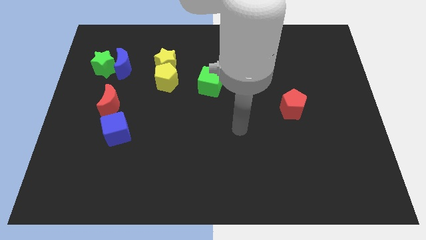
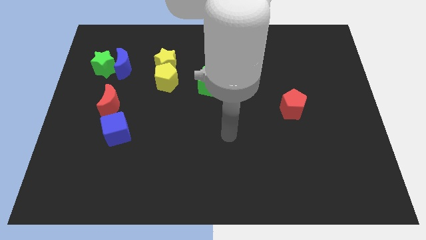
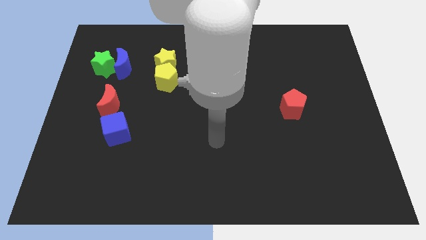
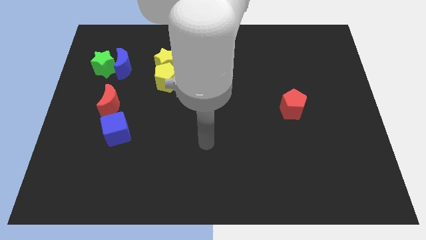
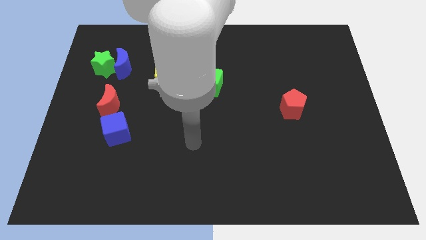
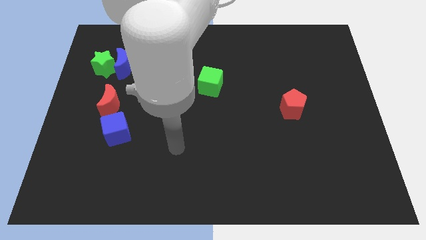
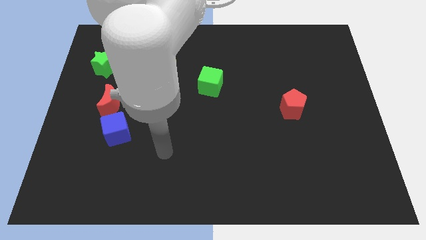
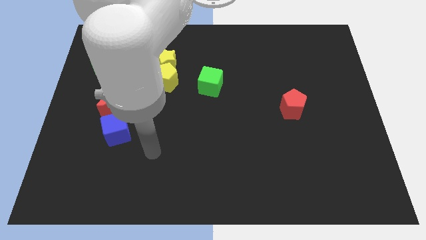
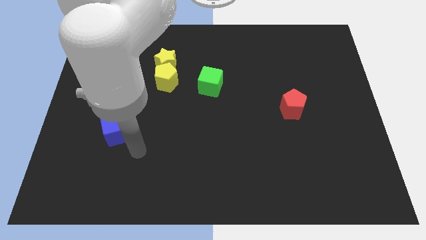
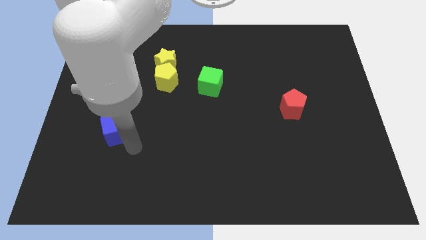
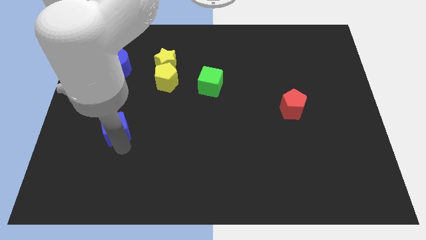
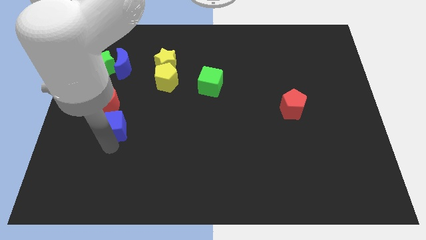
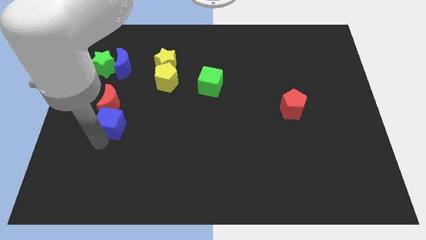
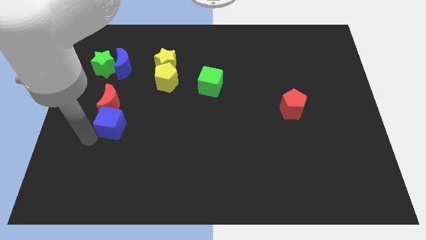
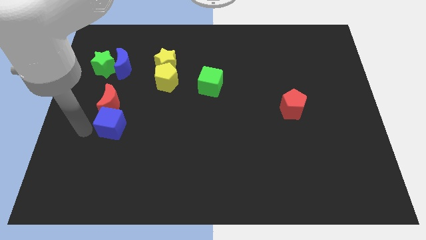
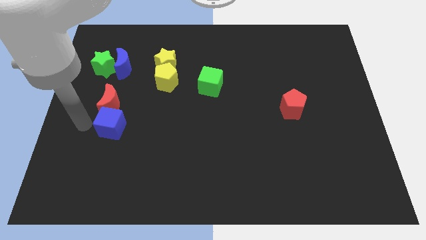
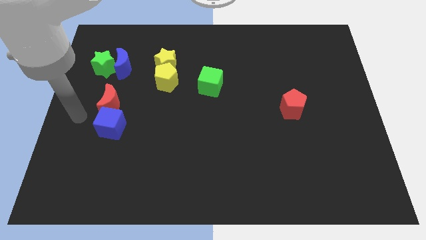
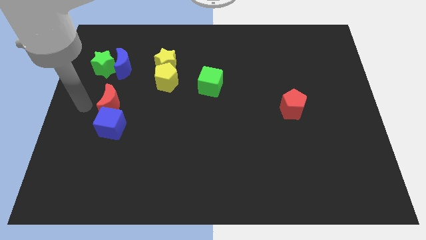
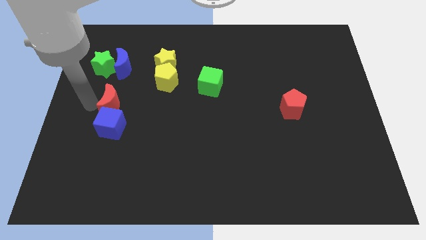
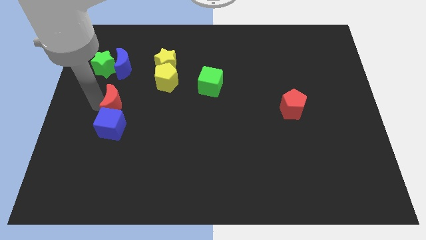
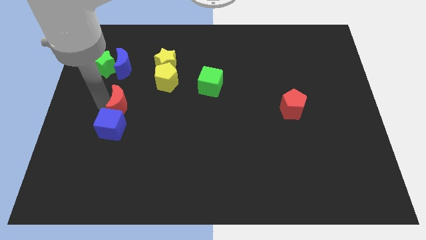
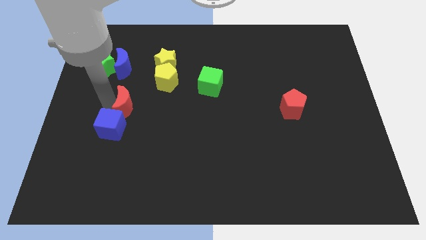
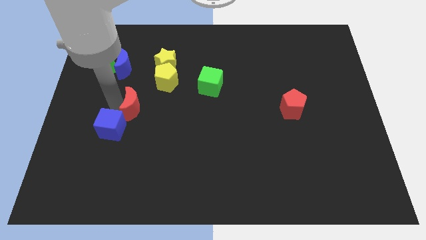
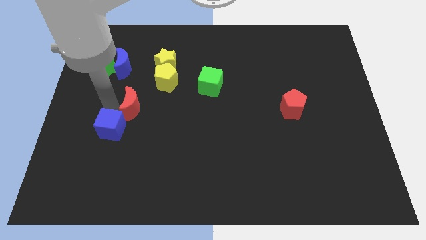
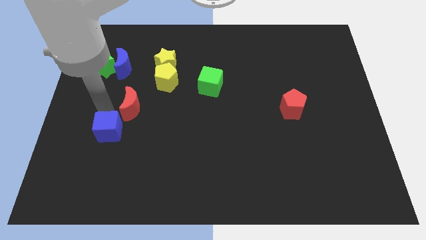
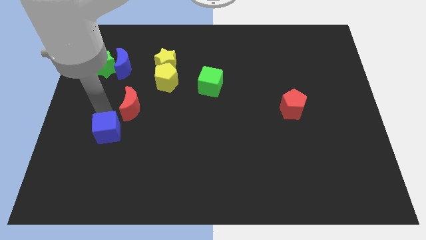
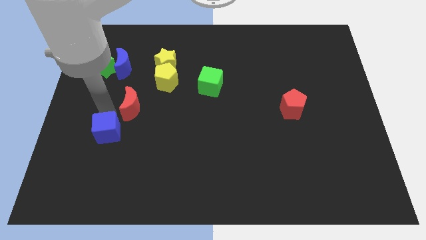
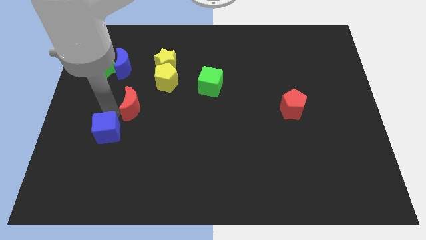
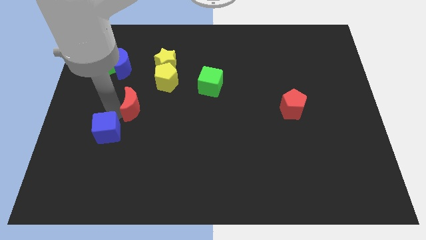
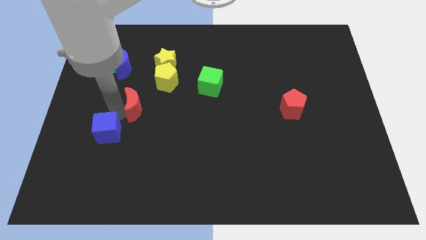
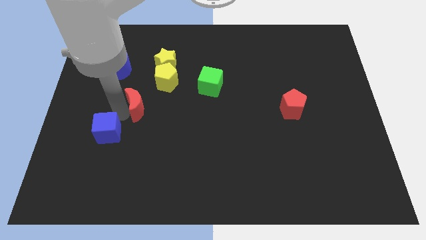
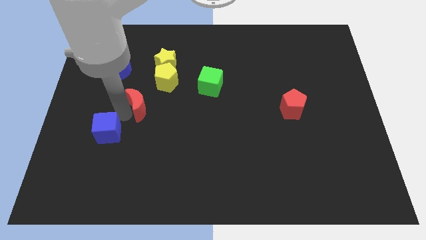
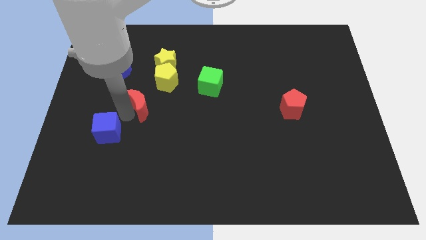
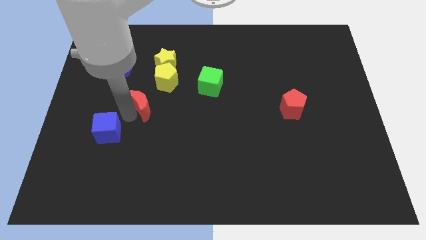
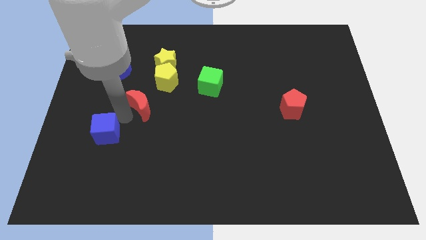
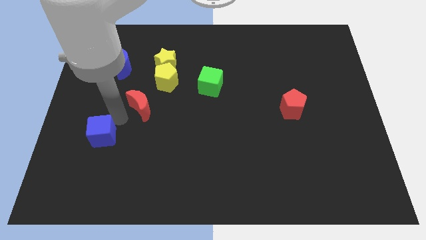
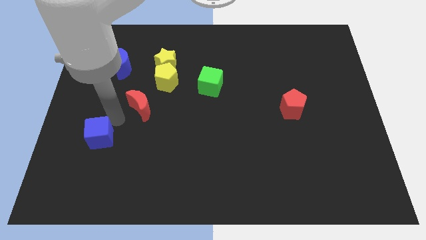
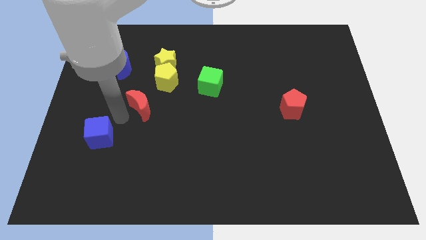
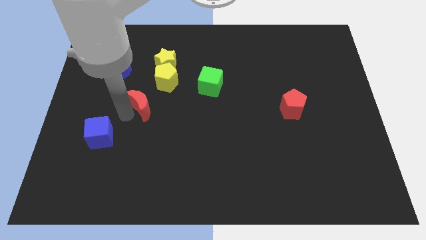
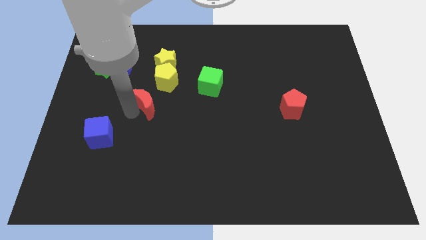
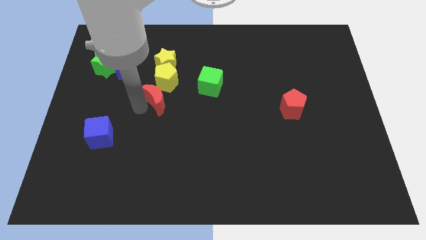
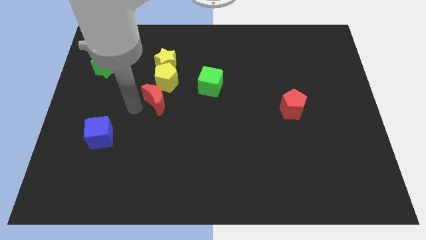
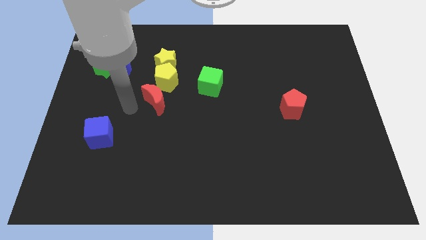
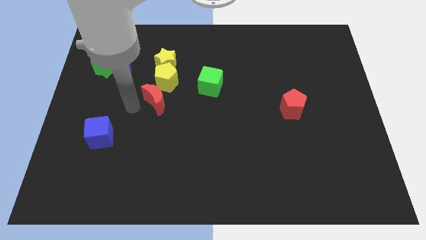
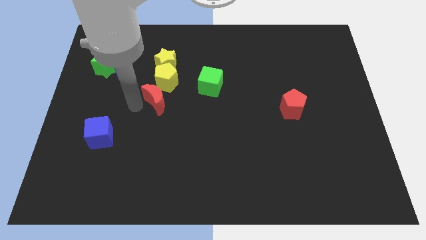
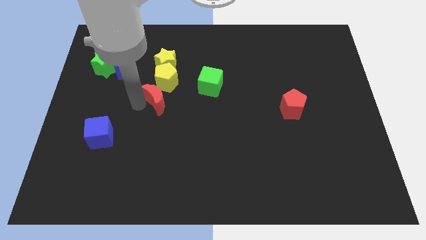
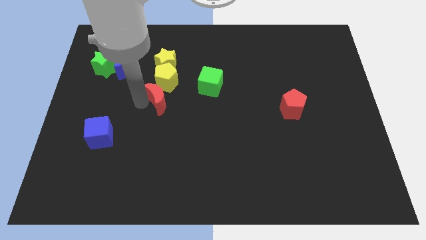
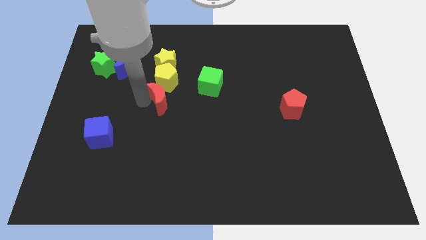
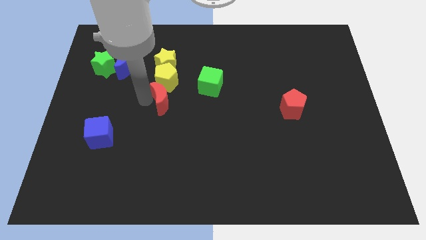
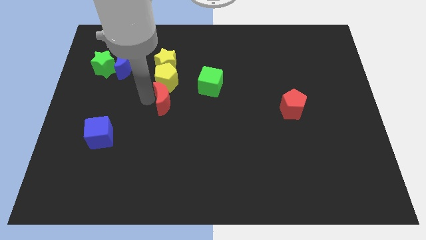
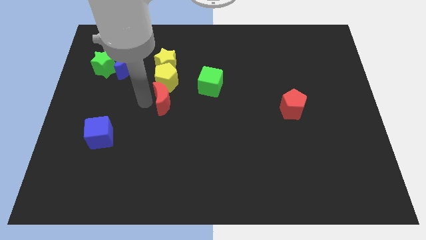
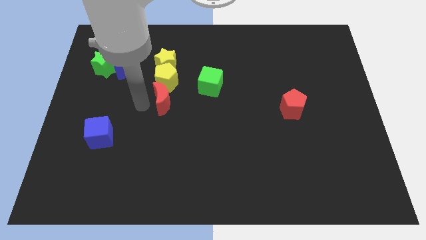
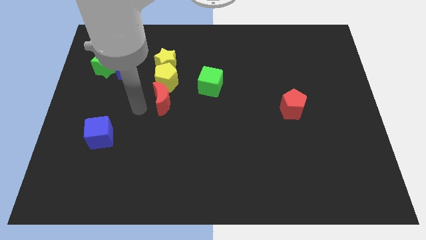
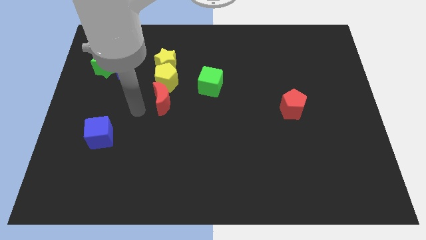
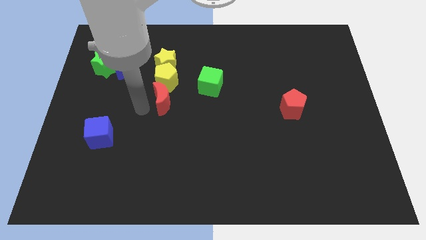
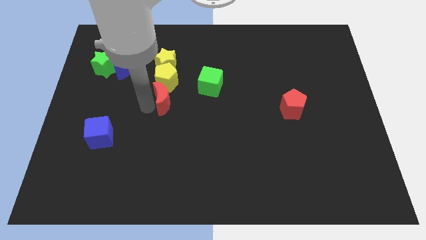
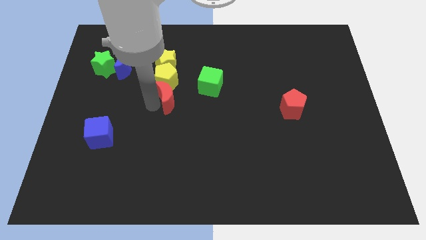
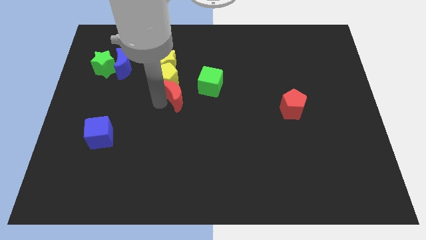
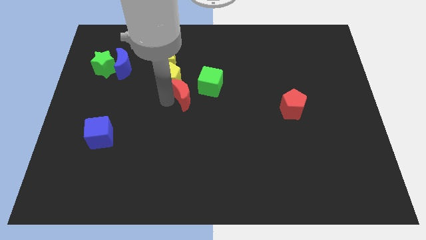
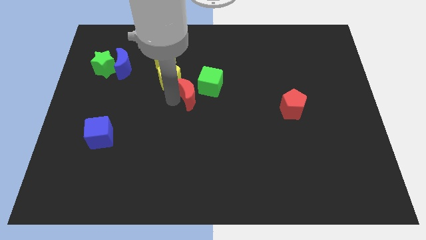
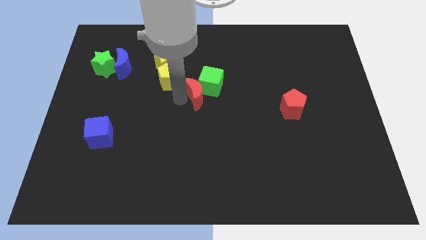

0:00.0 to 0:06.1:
push the red moon towards the green cube

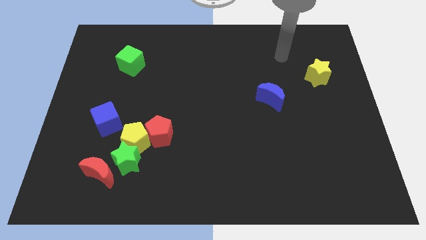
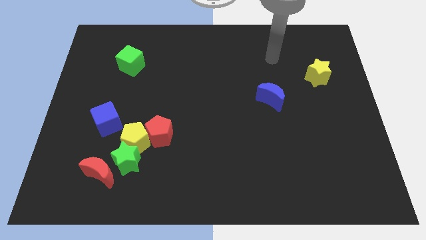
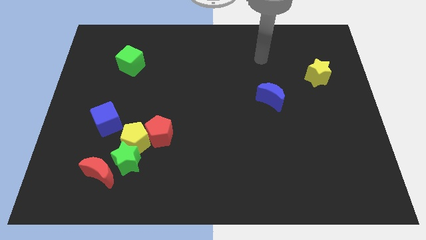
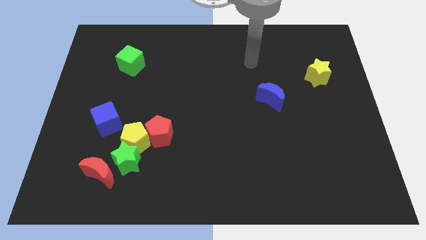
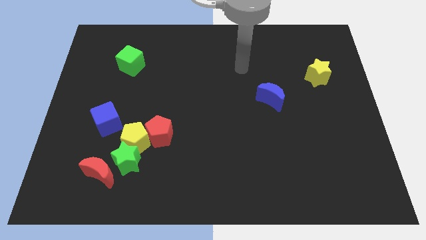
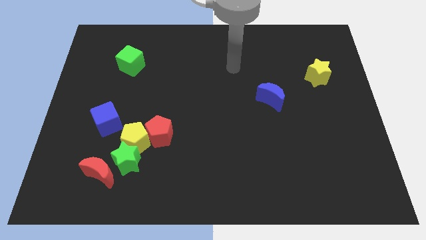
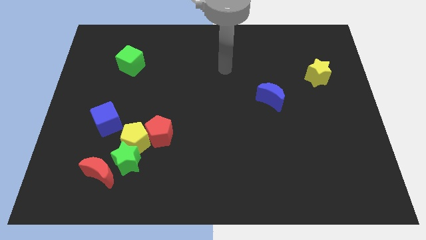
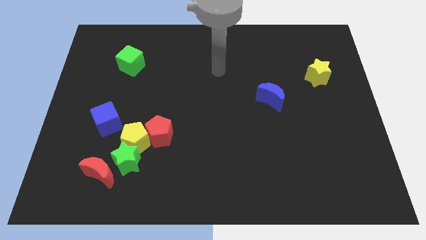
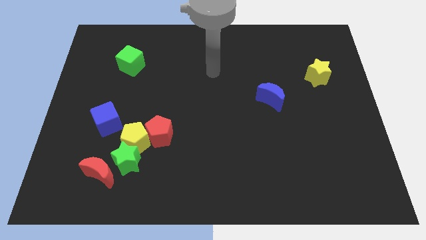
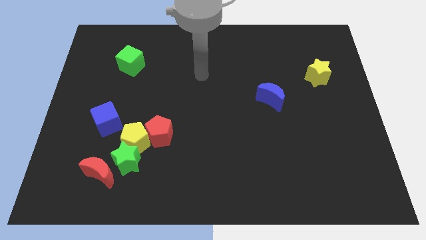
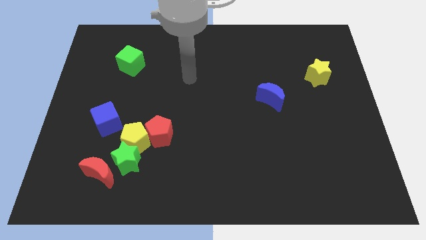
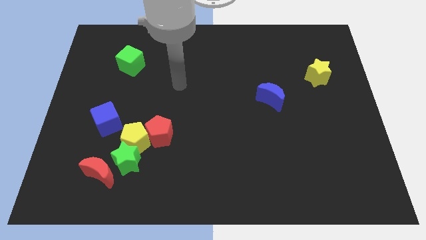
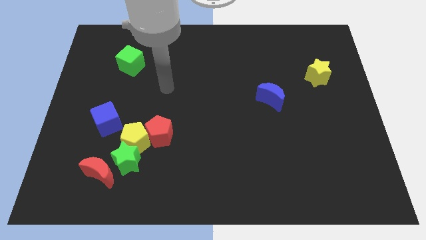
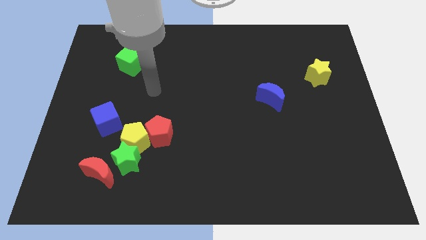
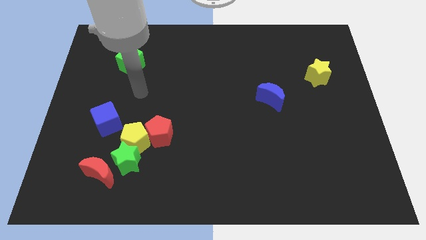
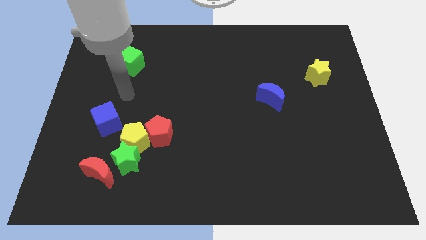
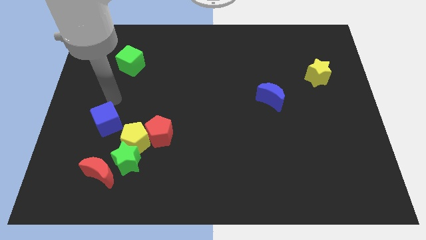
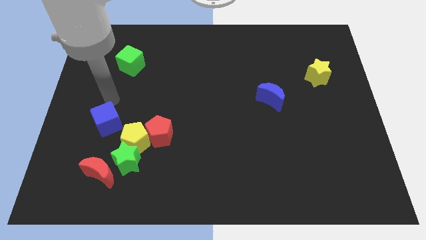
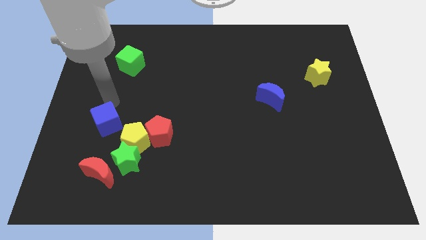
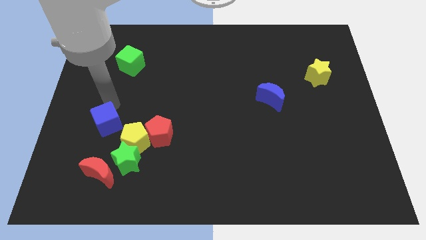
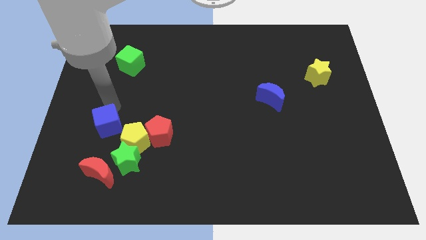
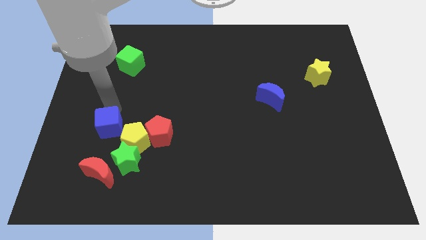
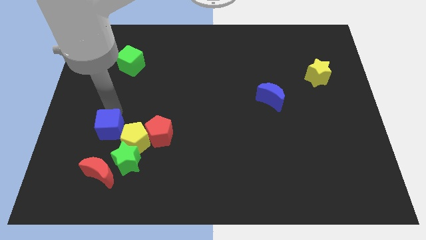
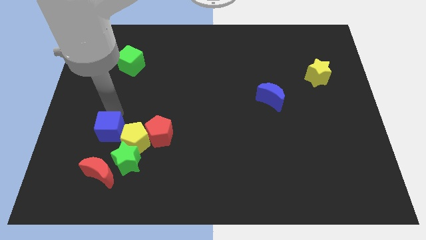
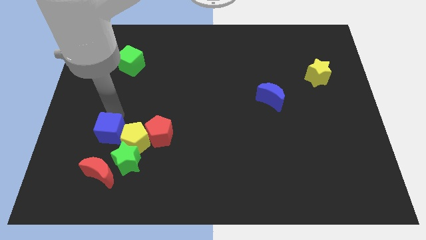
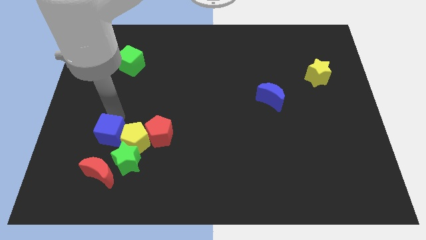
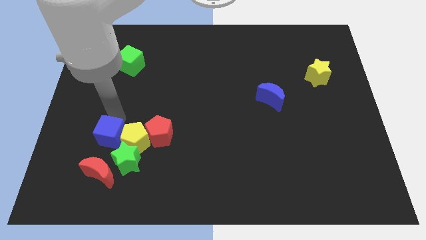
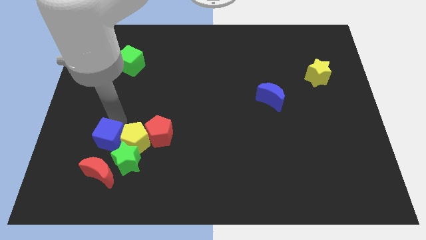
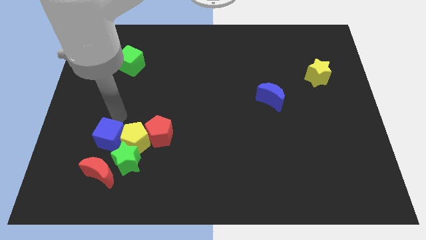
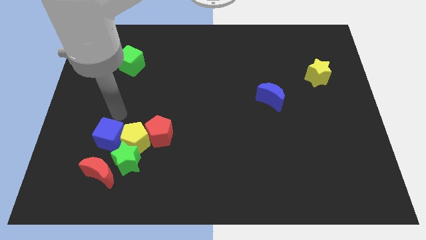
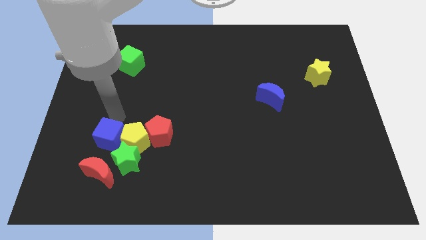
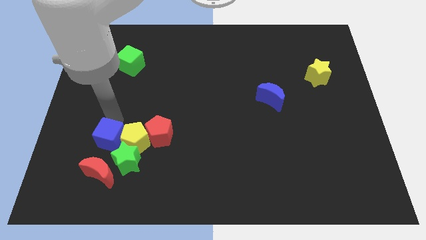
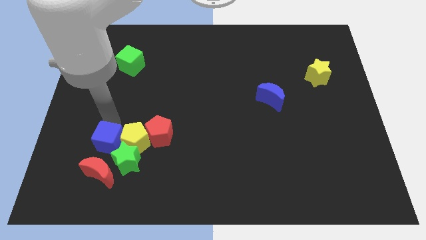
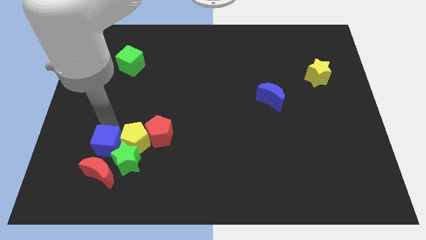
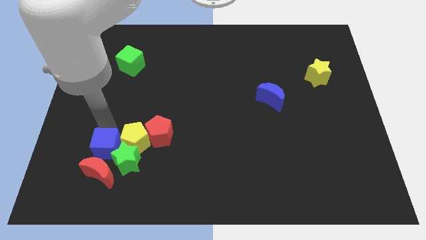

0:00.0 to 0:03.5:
push the blue cube to the red moon
